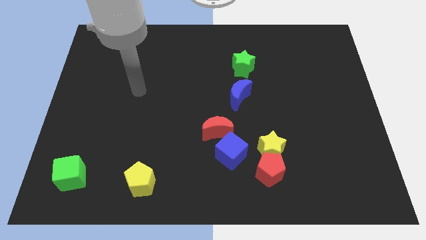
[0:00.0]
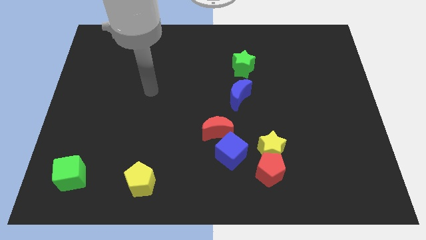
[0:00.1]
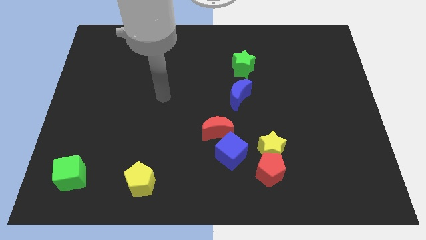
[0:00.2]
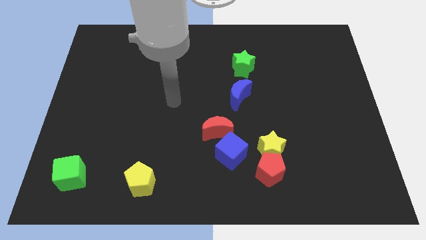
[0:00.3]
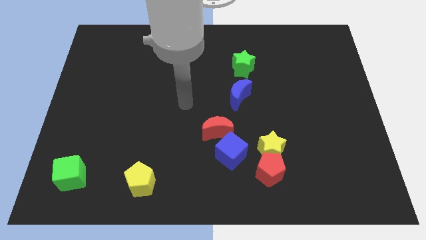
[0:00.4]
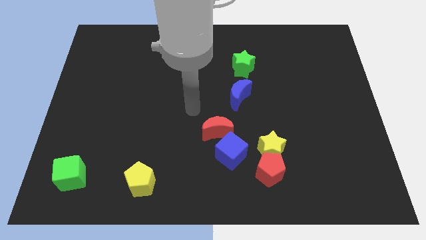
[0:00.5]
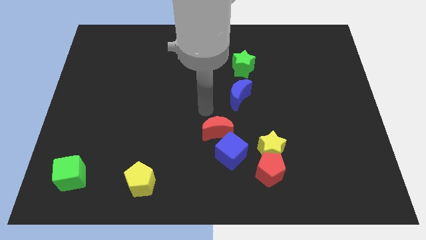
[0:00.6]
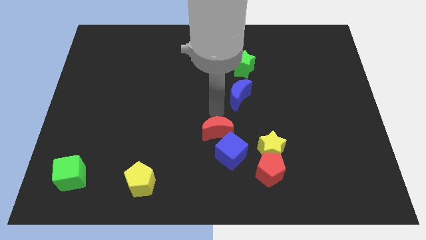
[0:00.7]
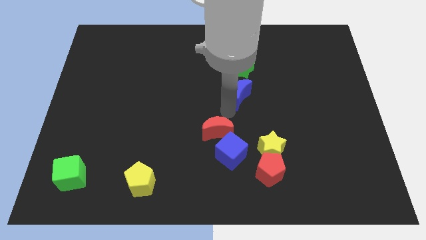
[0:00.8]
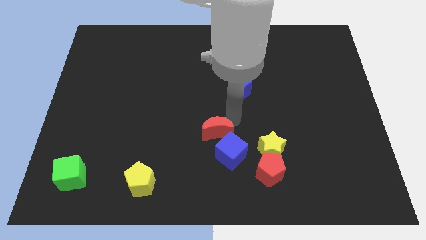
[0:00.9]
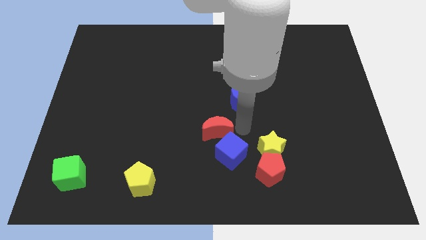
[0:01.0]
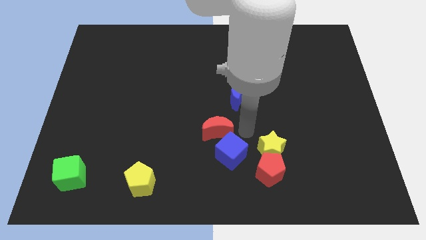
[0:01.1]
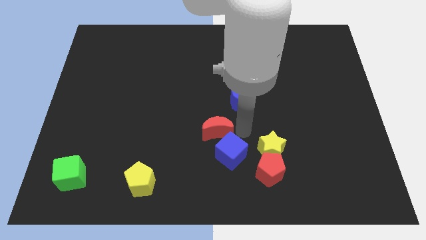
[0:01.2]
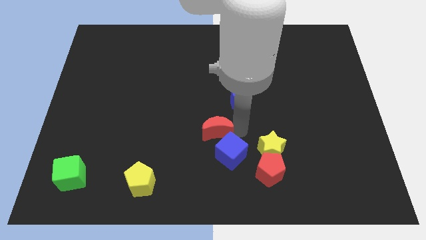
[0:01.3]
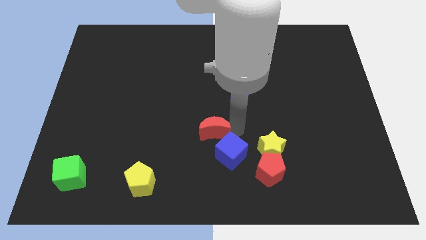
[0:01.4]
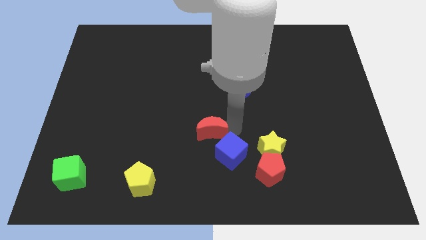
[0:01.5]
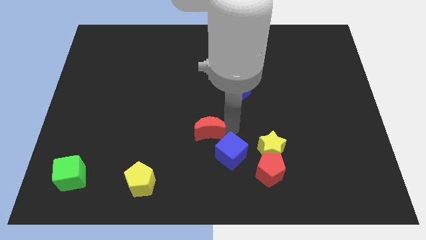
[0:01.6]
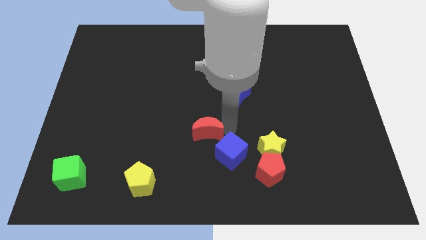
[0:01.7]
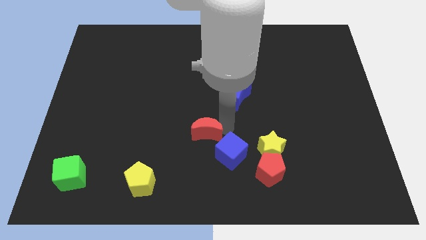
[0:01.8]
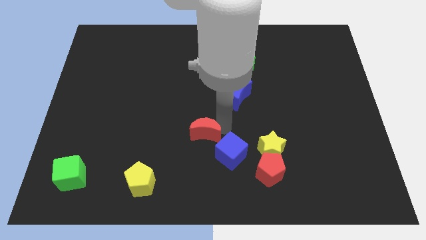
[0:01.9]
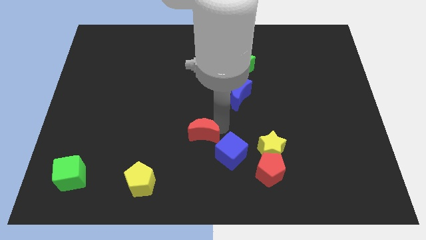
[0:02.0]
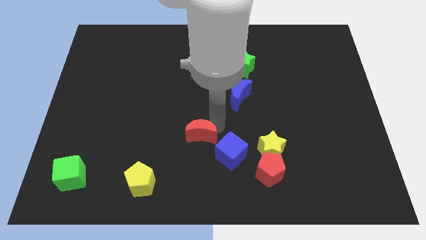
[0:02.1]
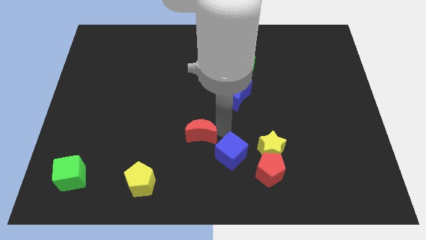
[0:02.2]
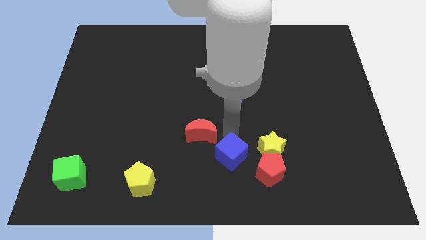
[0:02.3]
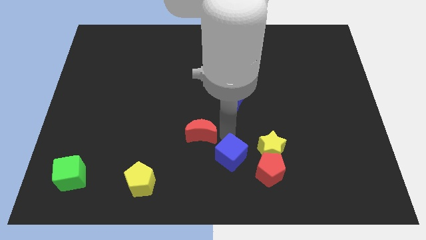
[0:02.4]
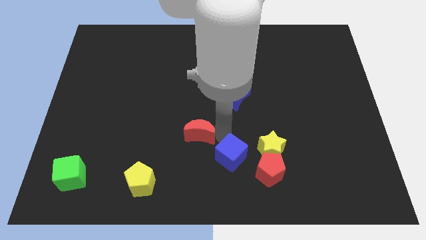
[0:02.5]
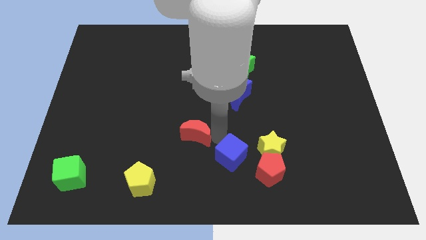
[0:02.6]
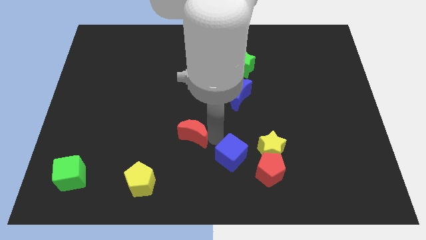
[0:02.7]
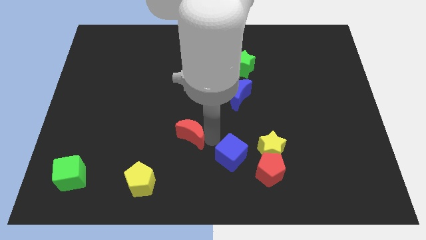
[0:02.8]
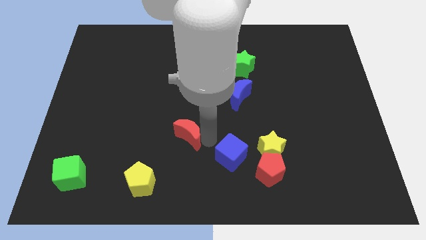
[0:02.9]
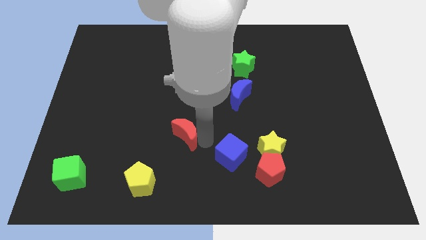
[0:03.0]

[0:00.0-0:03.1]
move the red moon left somewhat

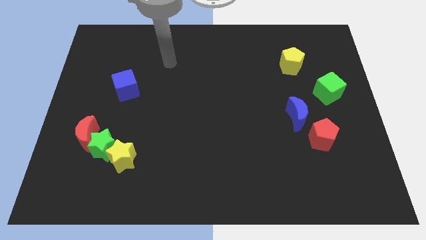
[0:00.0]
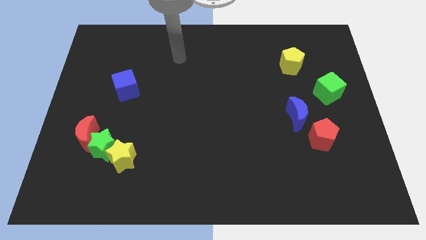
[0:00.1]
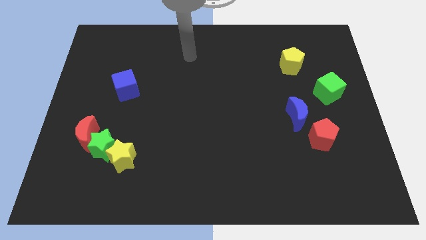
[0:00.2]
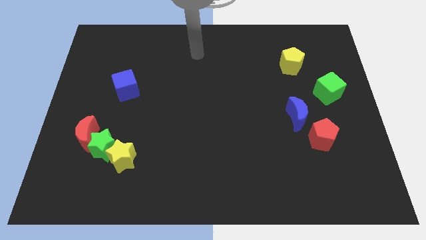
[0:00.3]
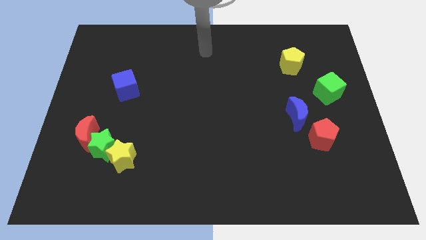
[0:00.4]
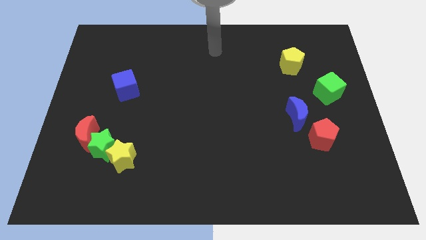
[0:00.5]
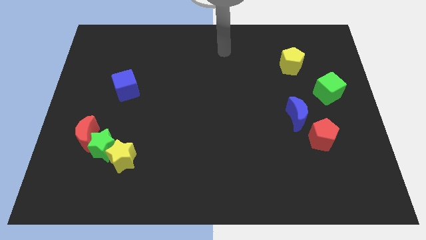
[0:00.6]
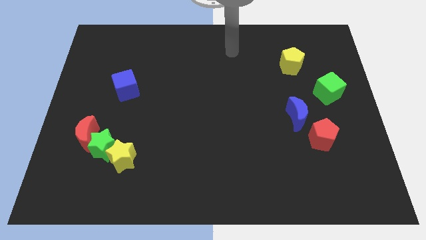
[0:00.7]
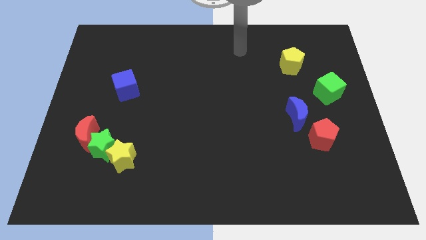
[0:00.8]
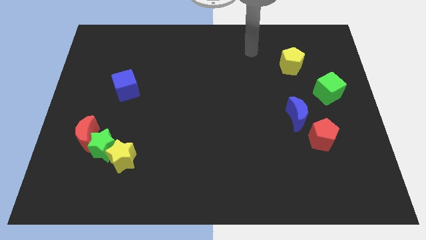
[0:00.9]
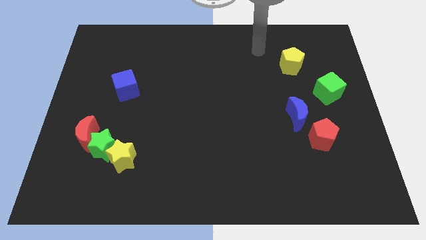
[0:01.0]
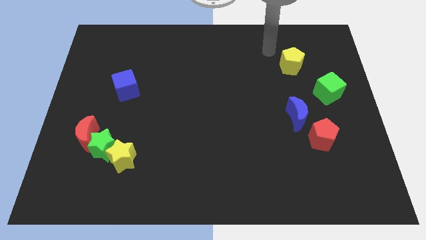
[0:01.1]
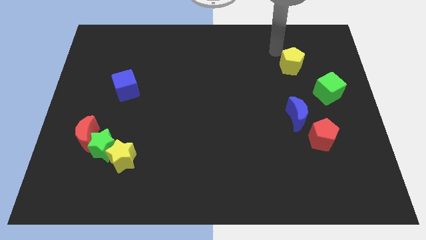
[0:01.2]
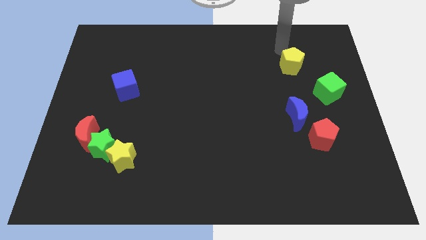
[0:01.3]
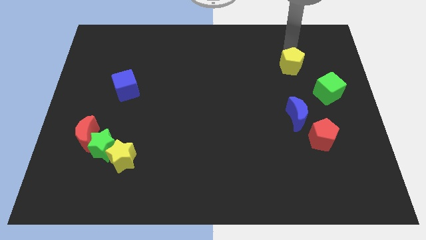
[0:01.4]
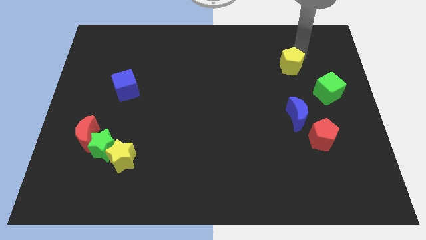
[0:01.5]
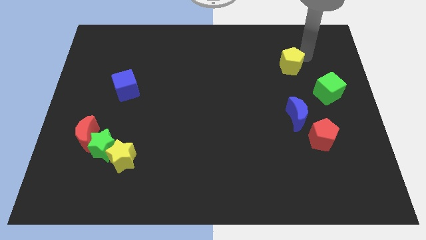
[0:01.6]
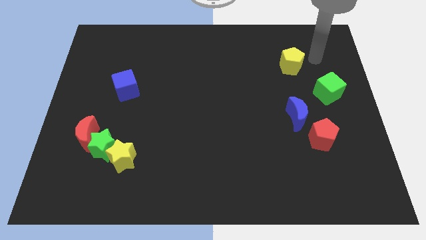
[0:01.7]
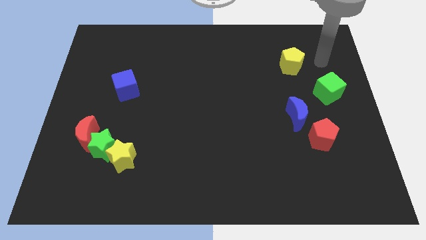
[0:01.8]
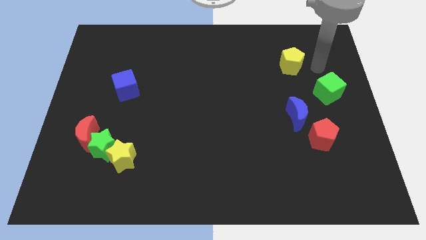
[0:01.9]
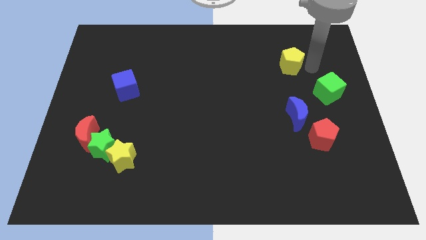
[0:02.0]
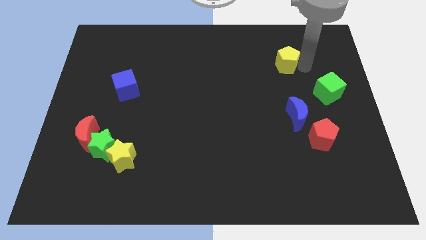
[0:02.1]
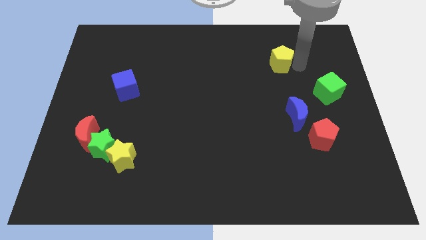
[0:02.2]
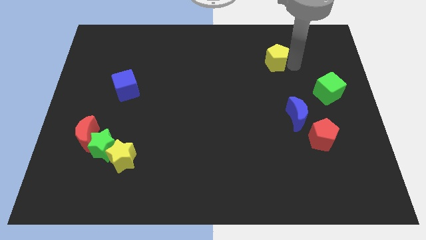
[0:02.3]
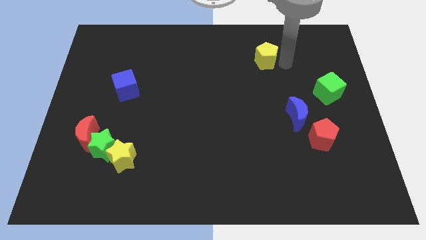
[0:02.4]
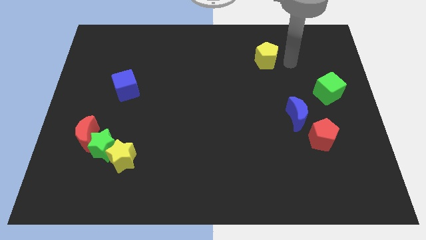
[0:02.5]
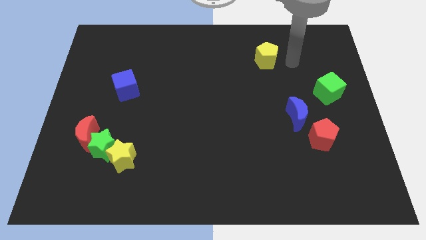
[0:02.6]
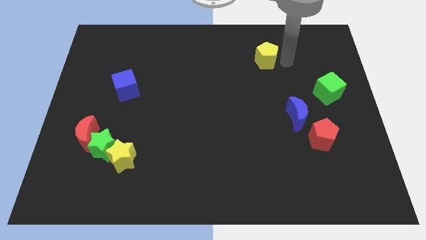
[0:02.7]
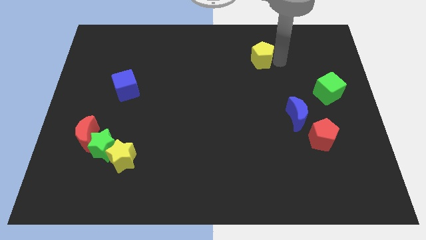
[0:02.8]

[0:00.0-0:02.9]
slightly slide the yellow pentagon to the left

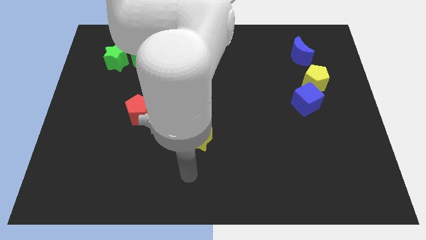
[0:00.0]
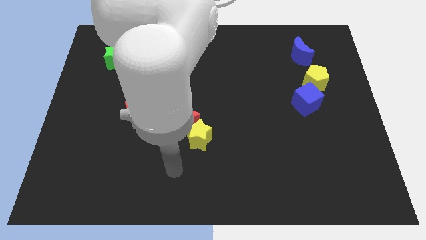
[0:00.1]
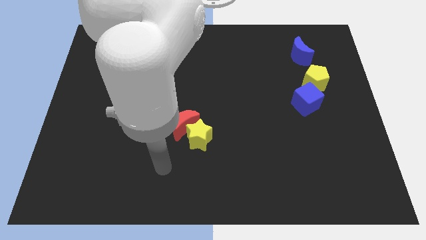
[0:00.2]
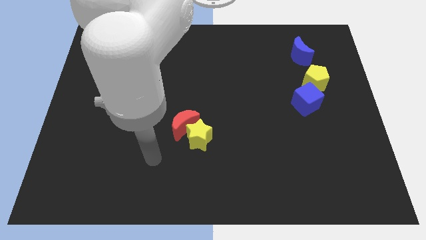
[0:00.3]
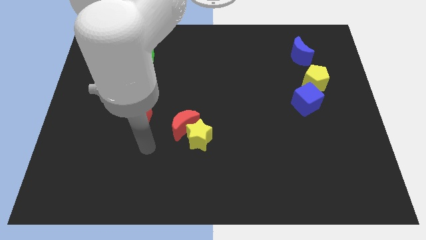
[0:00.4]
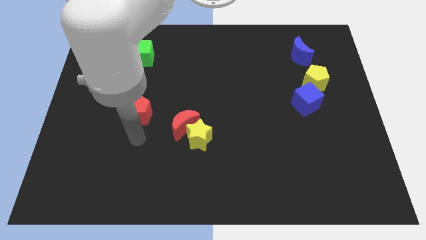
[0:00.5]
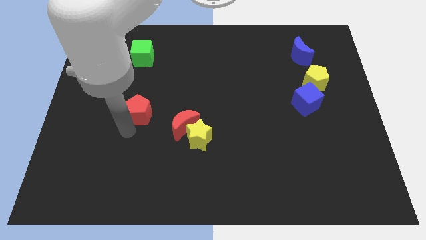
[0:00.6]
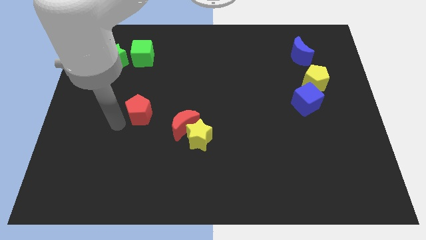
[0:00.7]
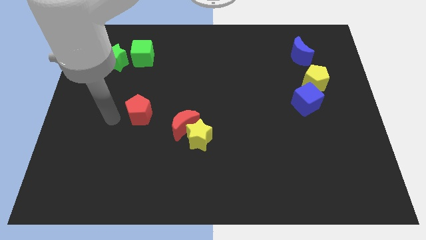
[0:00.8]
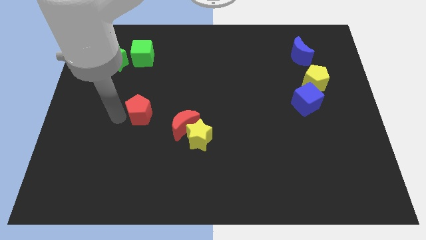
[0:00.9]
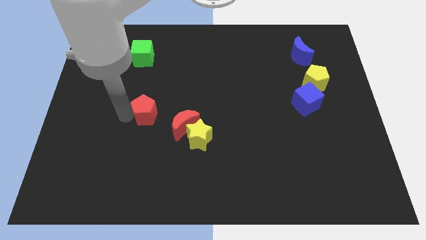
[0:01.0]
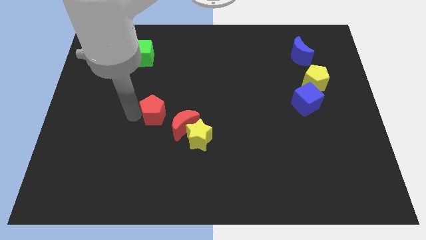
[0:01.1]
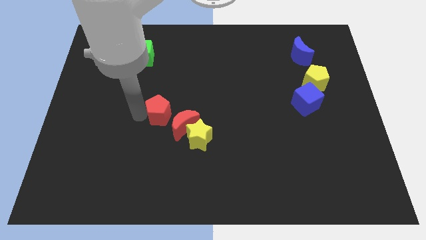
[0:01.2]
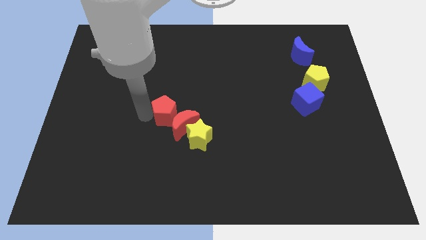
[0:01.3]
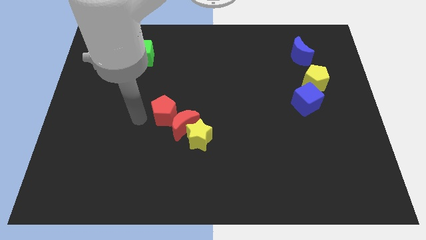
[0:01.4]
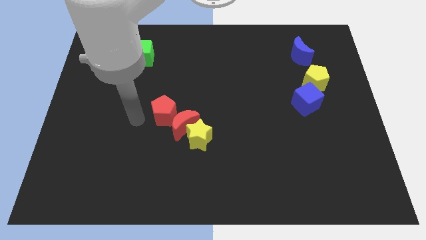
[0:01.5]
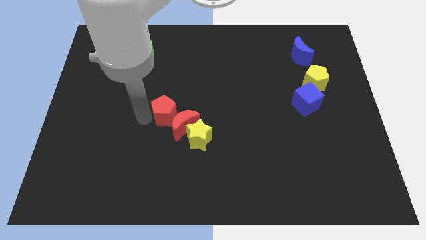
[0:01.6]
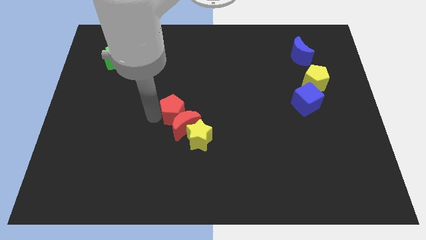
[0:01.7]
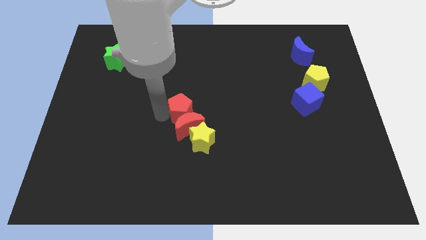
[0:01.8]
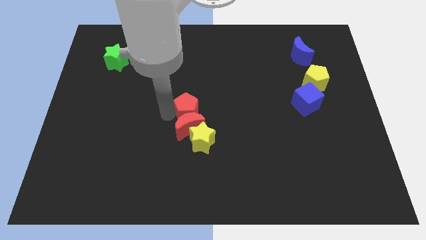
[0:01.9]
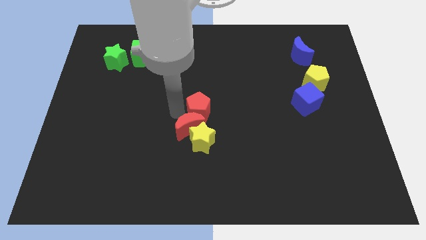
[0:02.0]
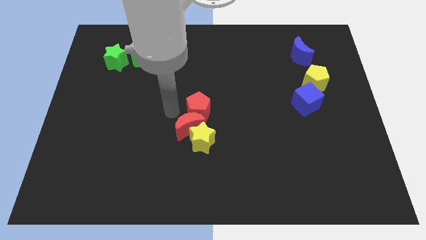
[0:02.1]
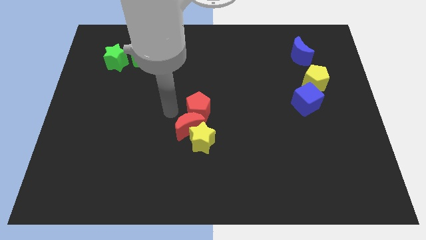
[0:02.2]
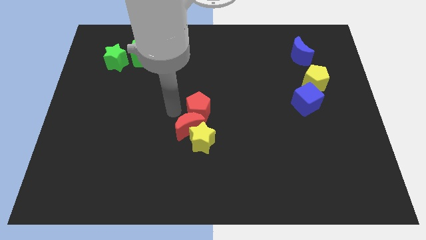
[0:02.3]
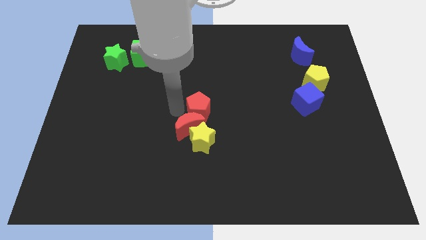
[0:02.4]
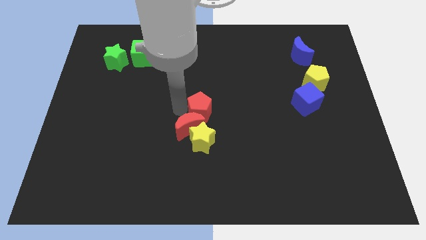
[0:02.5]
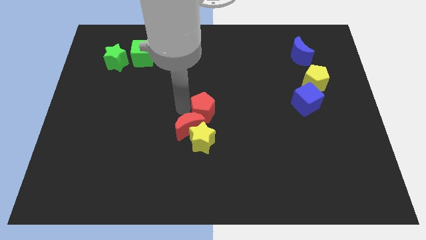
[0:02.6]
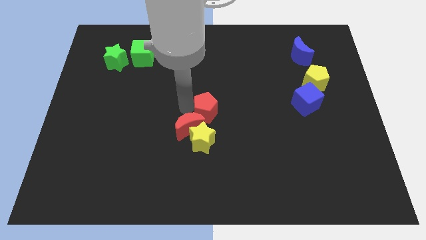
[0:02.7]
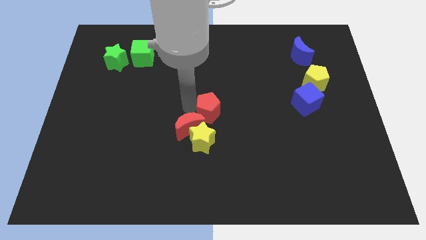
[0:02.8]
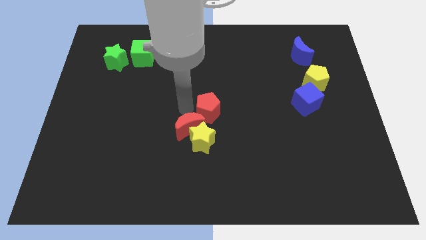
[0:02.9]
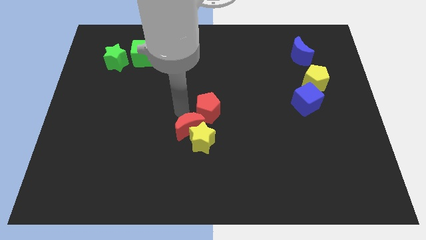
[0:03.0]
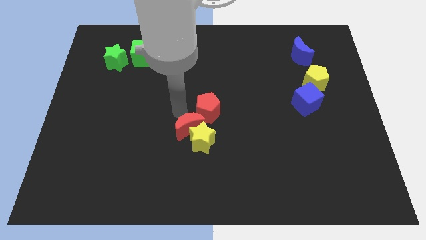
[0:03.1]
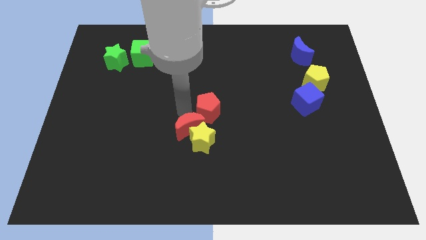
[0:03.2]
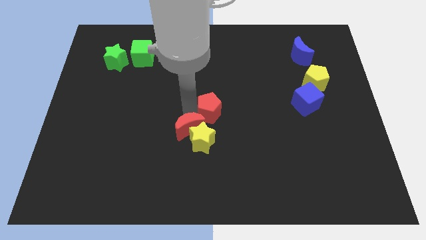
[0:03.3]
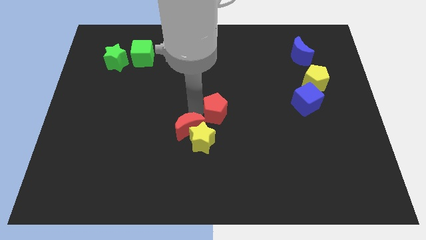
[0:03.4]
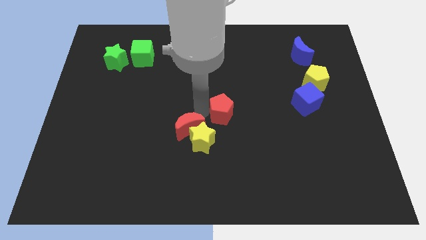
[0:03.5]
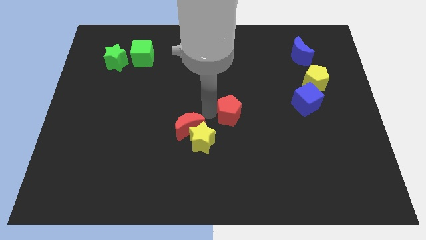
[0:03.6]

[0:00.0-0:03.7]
slide the red pentagon to the right
